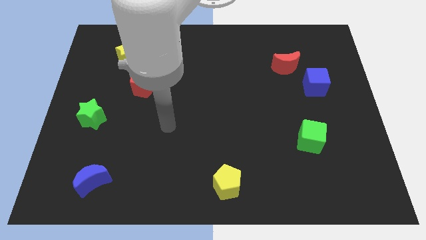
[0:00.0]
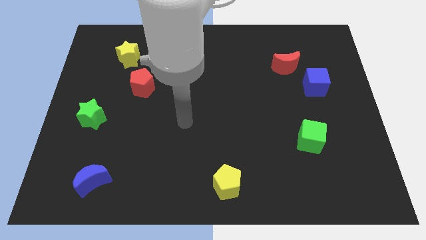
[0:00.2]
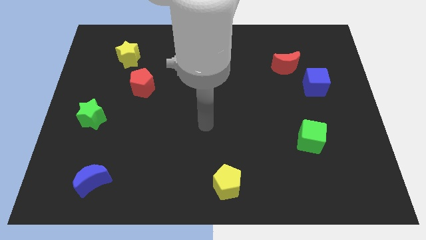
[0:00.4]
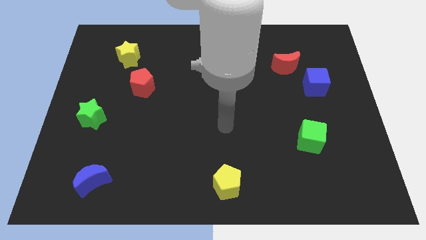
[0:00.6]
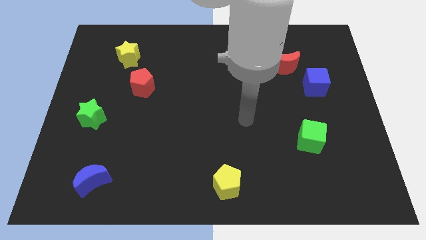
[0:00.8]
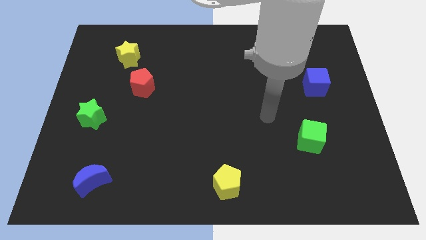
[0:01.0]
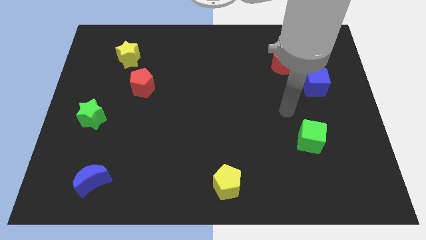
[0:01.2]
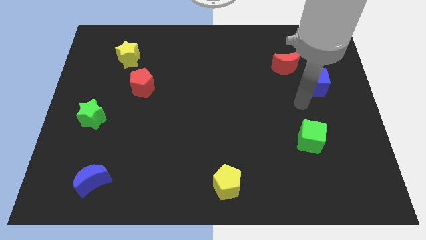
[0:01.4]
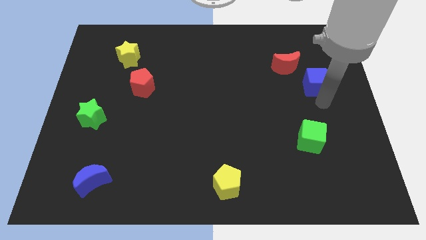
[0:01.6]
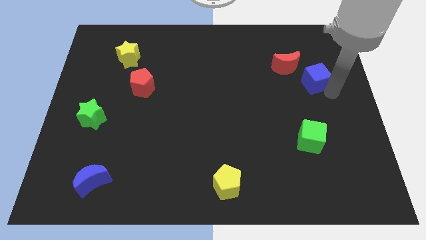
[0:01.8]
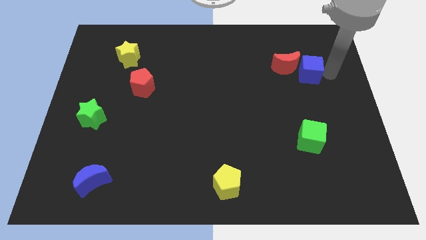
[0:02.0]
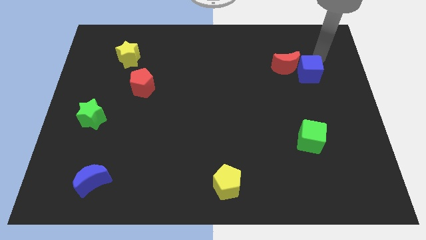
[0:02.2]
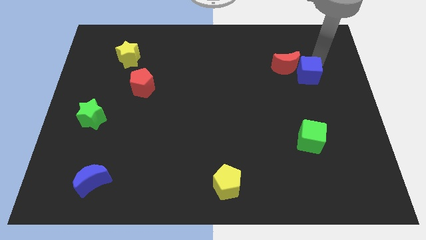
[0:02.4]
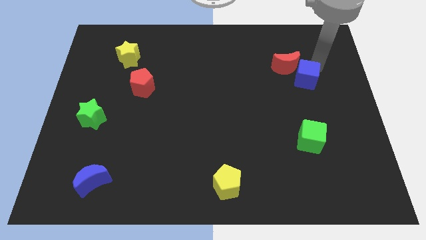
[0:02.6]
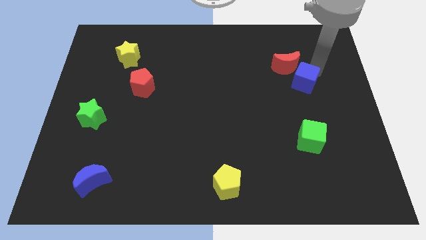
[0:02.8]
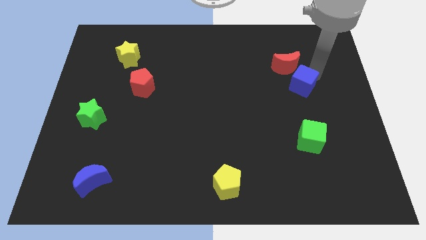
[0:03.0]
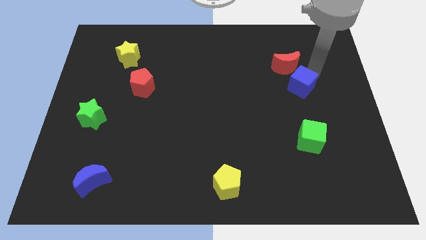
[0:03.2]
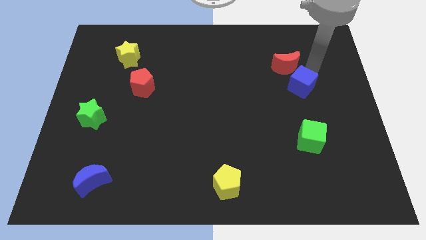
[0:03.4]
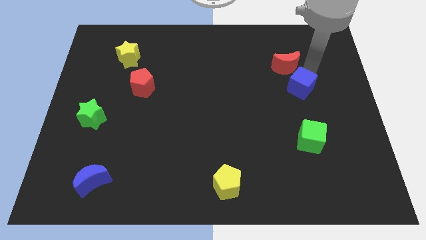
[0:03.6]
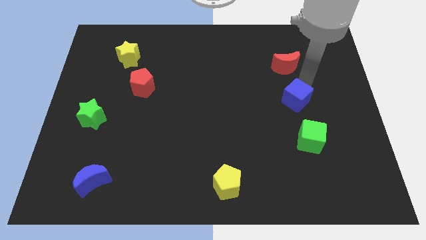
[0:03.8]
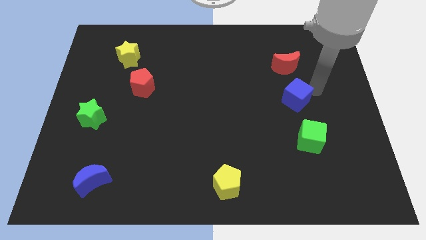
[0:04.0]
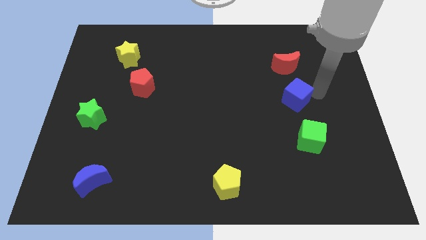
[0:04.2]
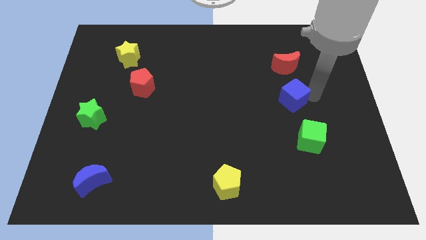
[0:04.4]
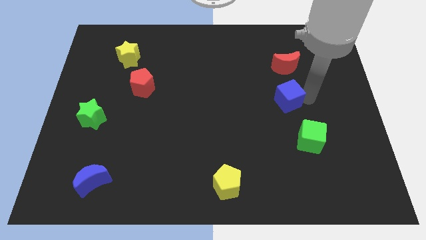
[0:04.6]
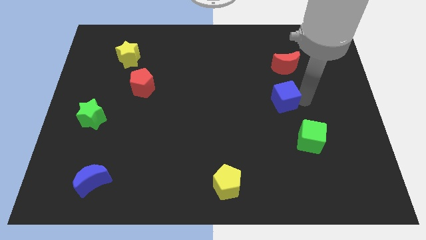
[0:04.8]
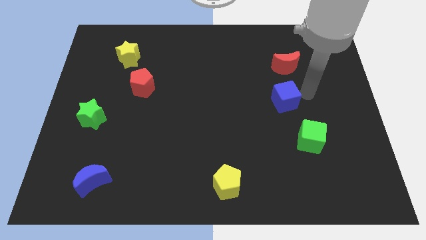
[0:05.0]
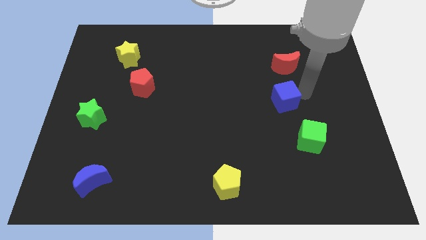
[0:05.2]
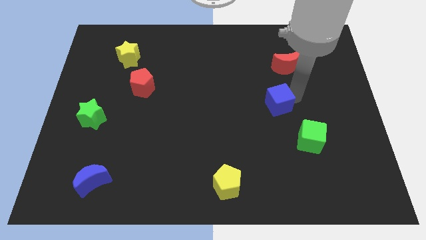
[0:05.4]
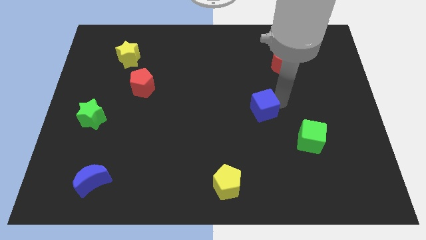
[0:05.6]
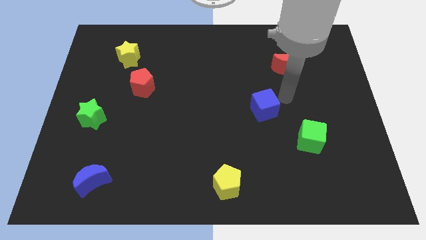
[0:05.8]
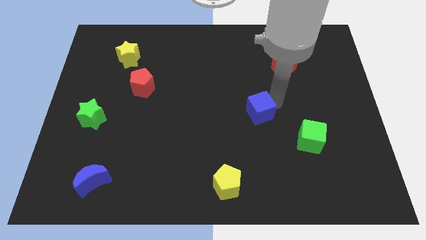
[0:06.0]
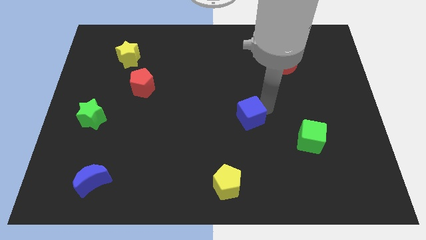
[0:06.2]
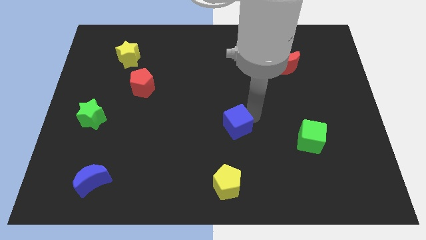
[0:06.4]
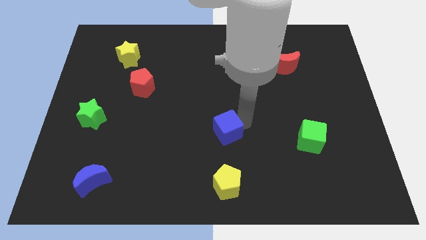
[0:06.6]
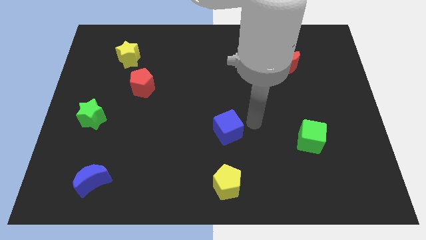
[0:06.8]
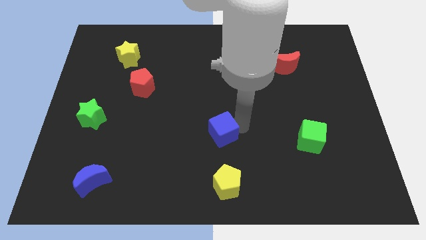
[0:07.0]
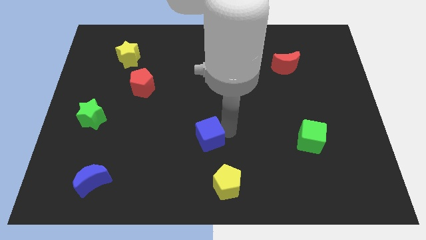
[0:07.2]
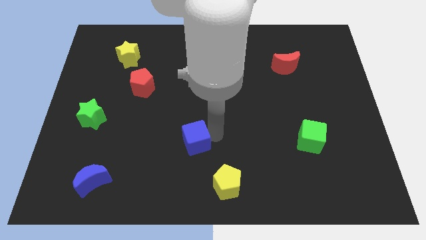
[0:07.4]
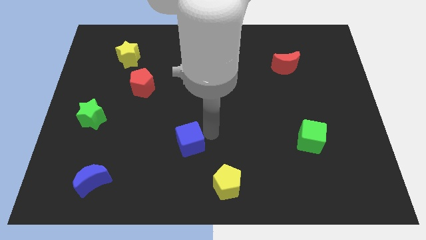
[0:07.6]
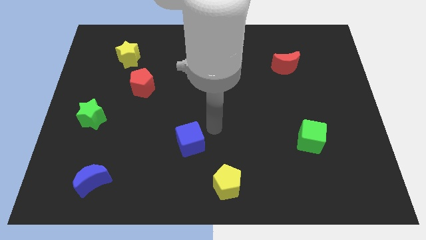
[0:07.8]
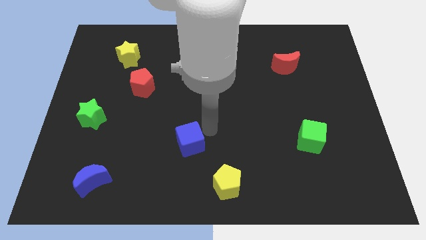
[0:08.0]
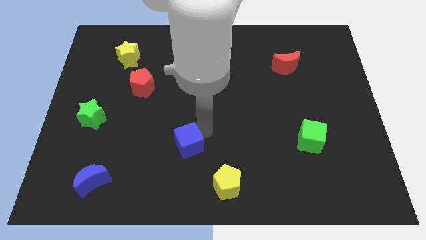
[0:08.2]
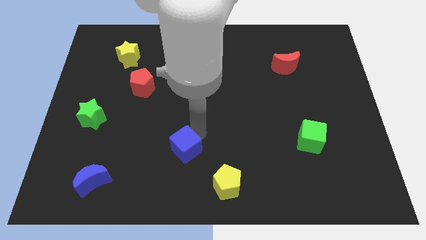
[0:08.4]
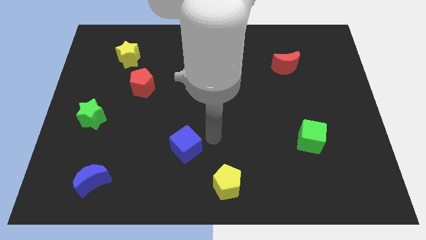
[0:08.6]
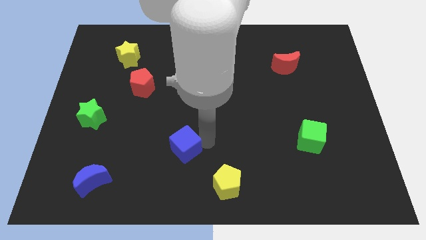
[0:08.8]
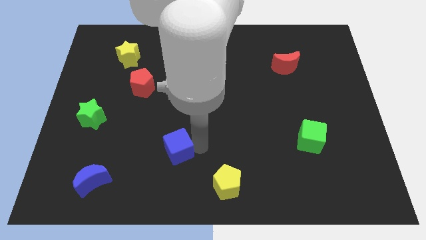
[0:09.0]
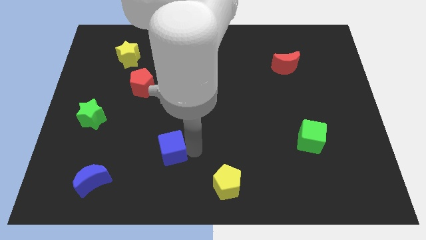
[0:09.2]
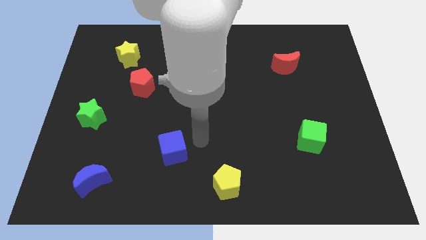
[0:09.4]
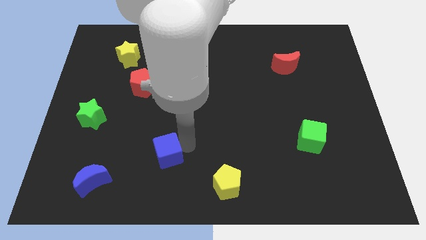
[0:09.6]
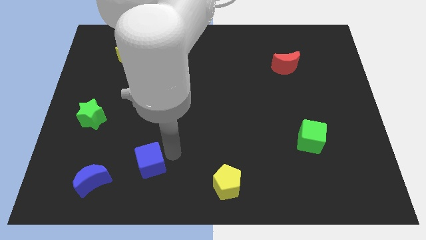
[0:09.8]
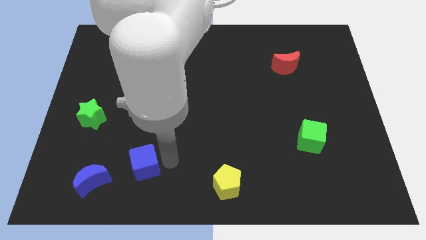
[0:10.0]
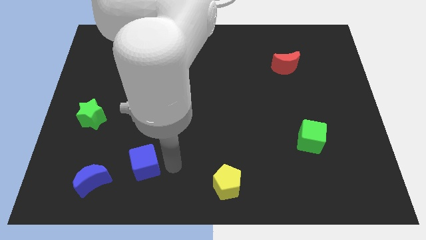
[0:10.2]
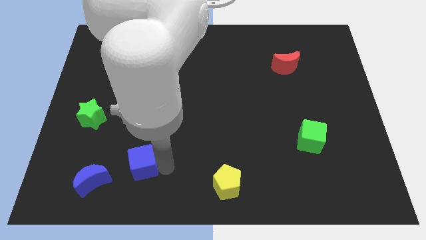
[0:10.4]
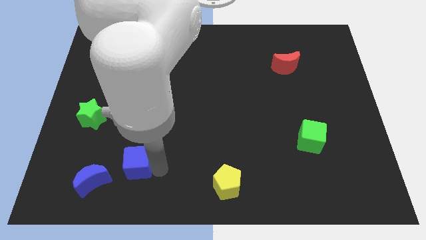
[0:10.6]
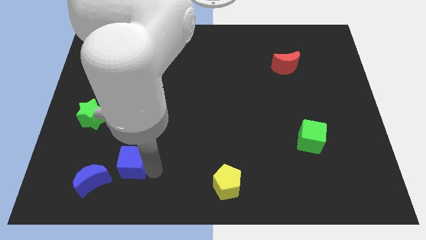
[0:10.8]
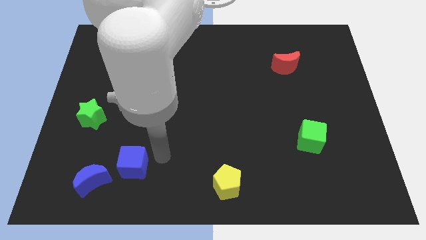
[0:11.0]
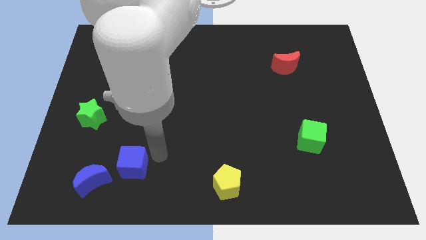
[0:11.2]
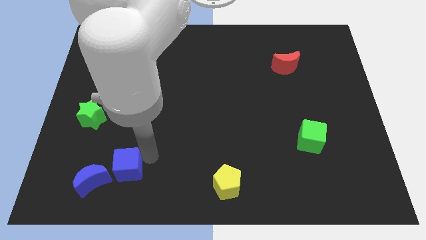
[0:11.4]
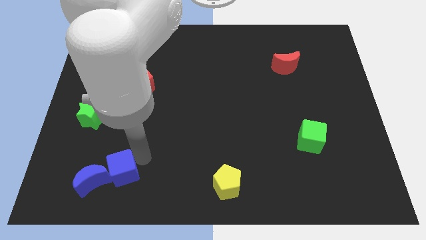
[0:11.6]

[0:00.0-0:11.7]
put the blue cube close to the blue moon
